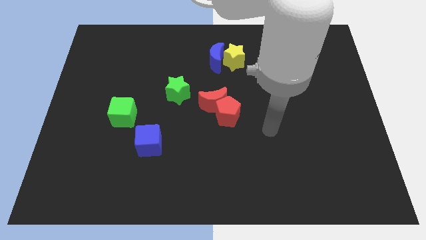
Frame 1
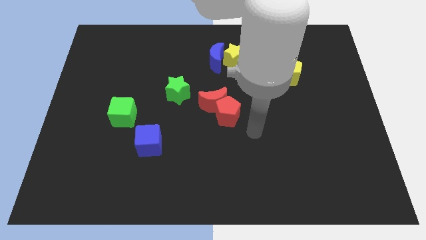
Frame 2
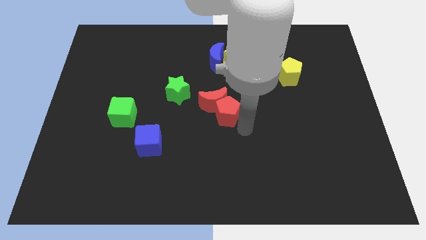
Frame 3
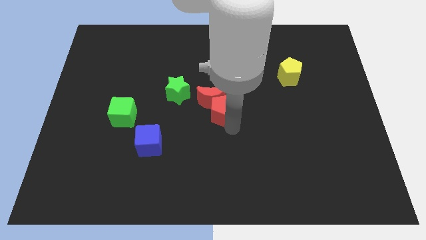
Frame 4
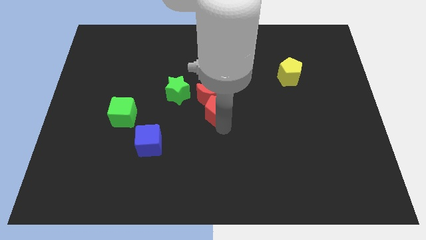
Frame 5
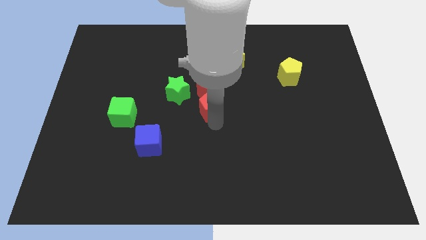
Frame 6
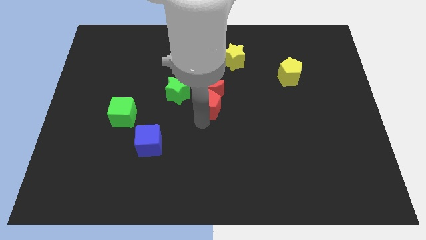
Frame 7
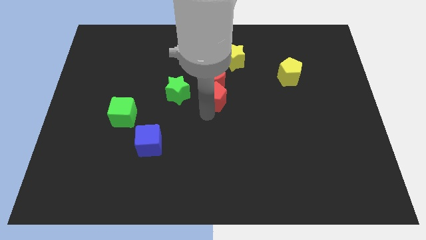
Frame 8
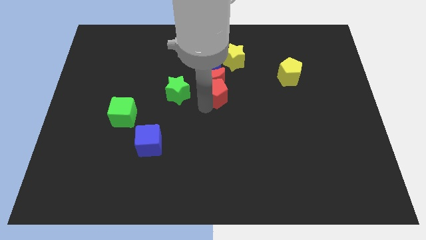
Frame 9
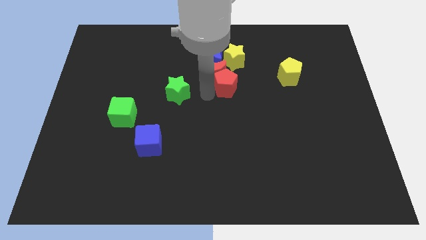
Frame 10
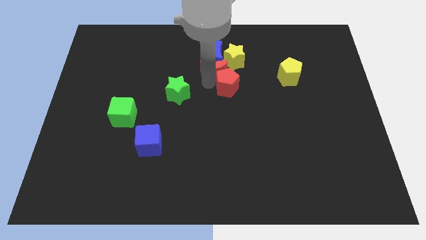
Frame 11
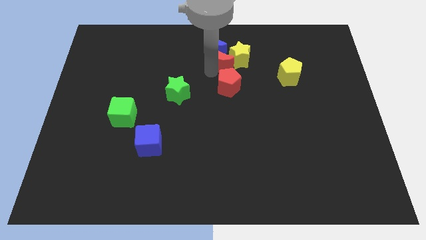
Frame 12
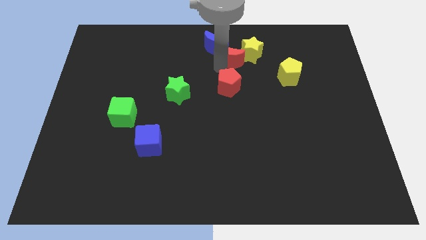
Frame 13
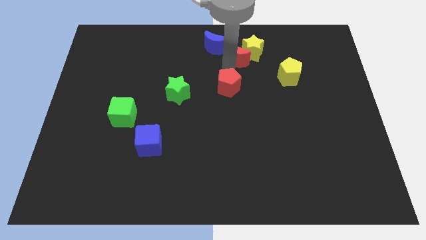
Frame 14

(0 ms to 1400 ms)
separate the red pentagon from the red moon

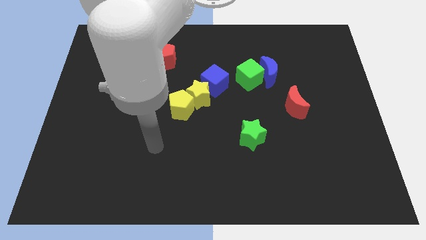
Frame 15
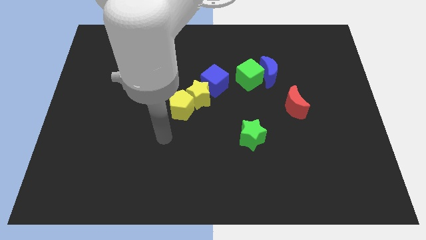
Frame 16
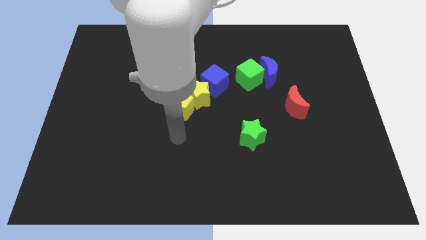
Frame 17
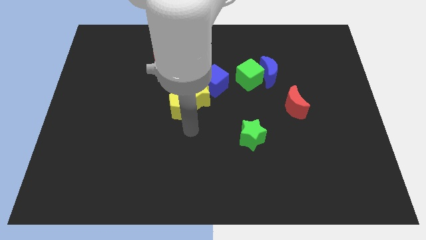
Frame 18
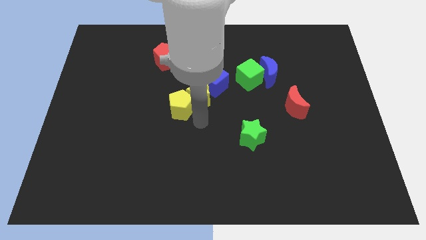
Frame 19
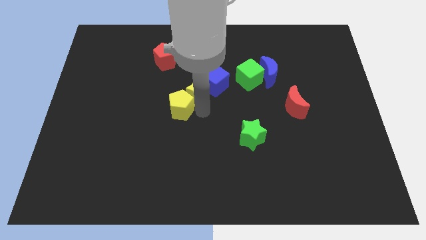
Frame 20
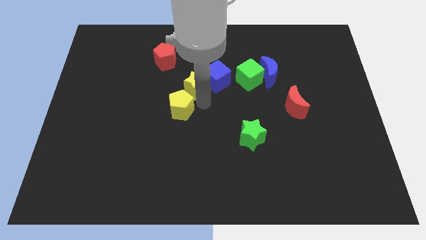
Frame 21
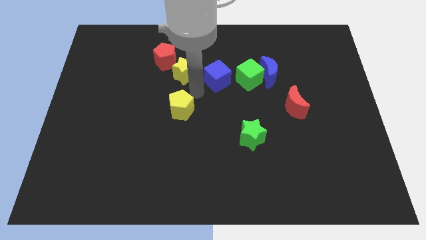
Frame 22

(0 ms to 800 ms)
separate the yellow pentagon from the yellow star

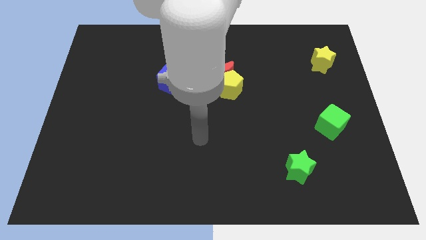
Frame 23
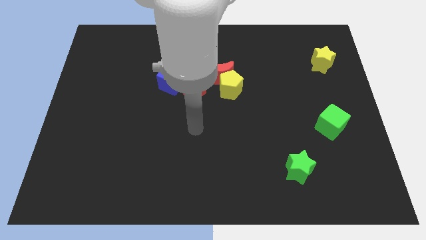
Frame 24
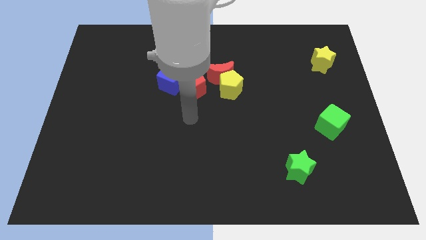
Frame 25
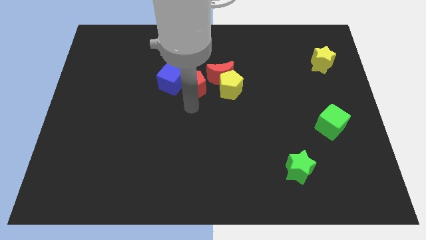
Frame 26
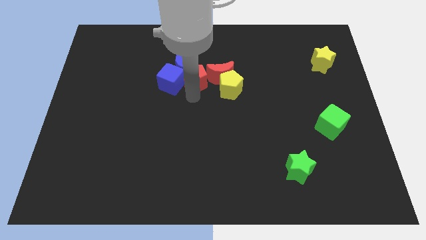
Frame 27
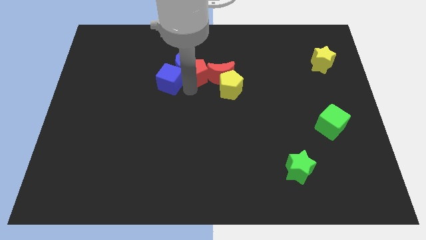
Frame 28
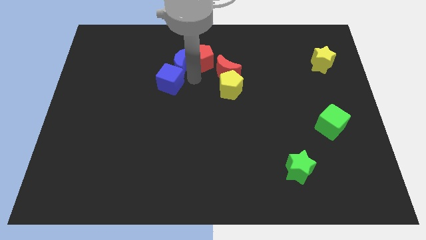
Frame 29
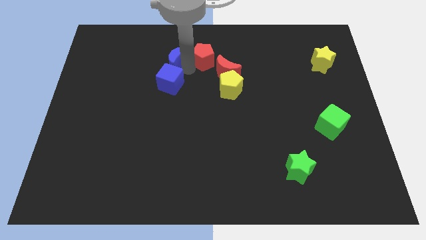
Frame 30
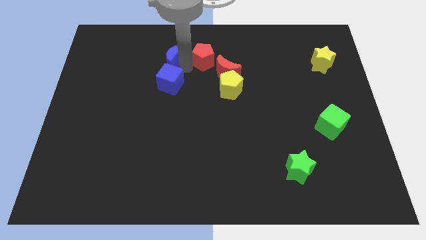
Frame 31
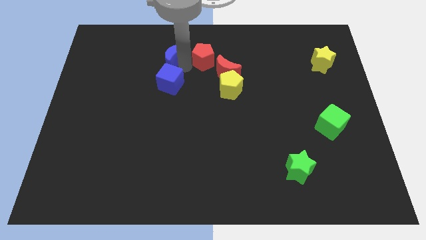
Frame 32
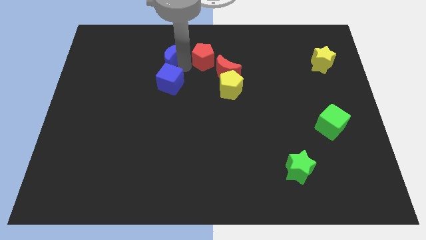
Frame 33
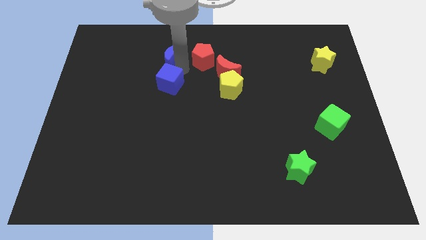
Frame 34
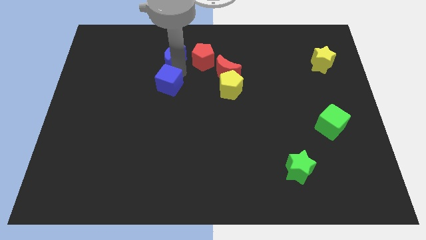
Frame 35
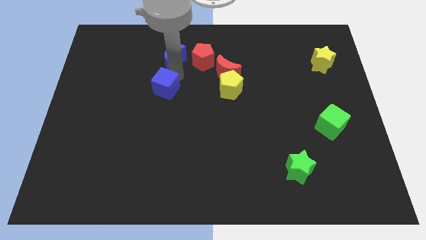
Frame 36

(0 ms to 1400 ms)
pull the blue cube apart from the red pentagon and blue moon

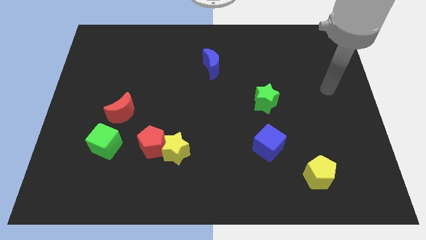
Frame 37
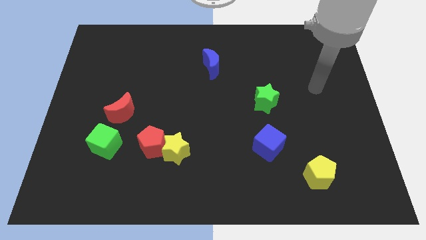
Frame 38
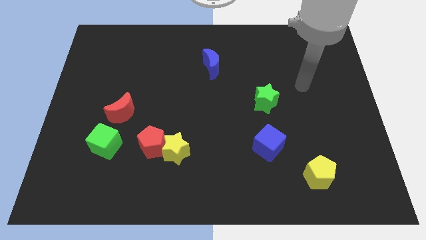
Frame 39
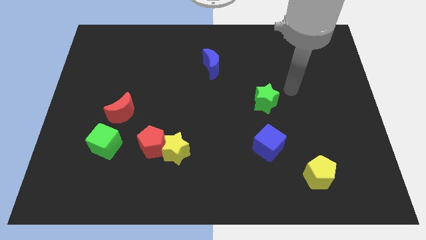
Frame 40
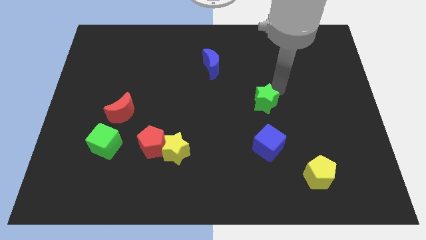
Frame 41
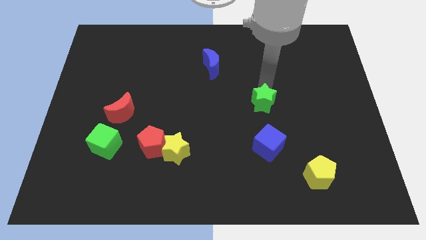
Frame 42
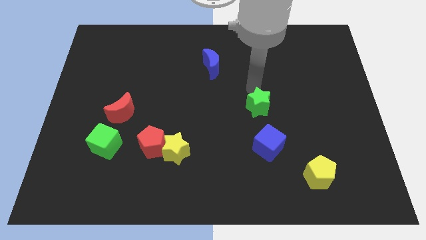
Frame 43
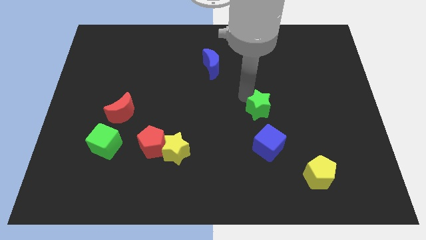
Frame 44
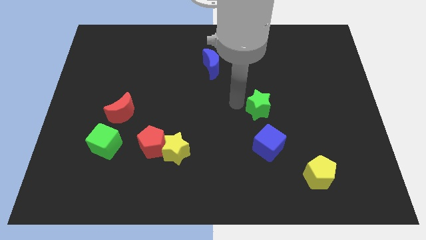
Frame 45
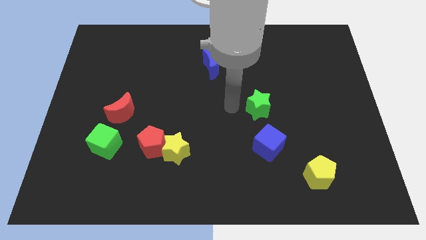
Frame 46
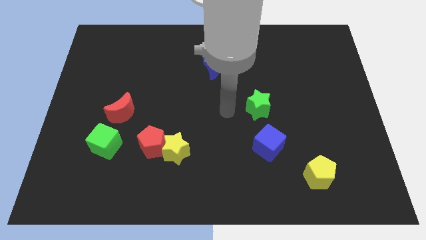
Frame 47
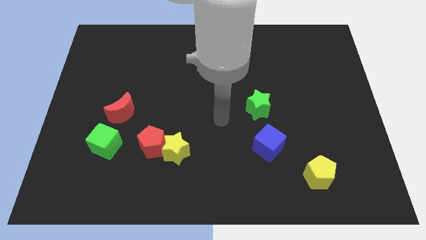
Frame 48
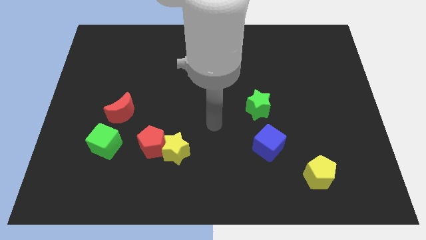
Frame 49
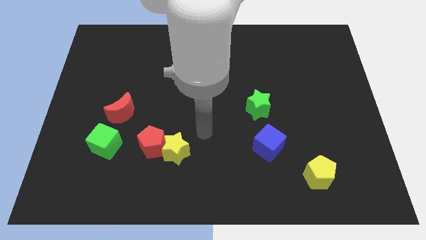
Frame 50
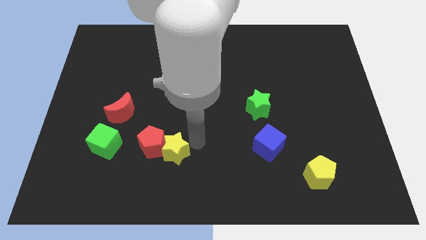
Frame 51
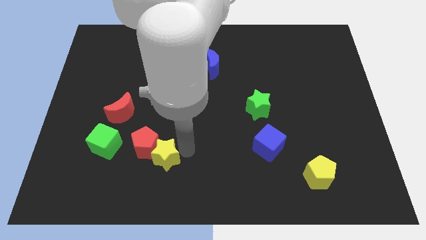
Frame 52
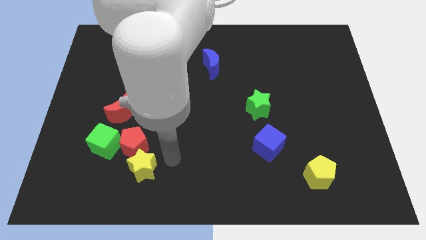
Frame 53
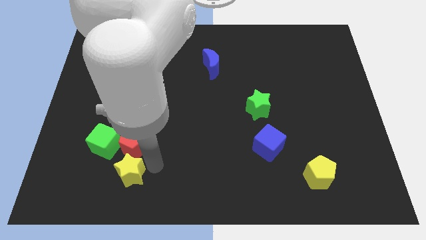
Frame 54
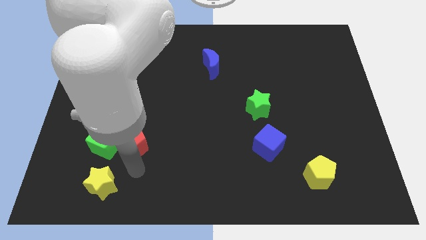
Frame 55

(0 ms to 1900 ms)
pull the red pentagon apart from the yellow star

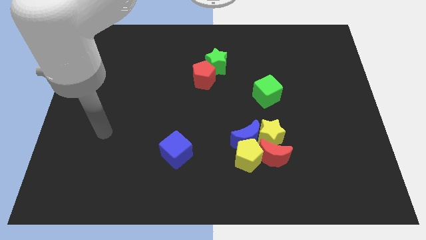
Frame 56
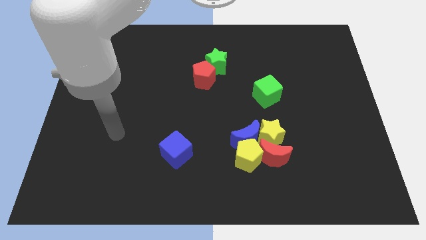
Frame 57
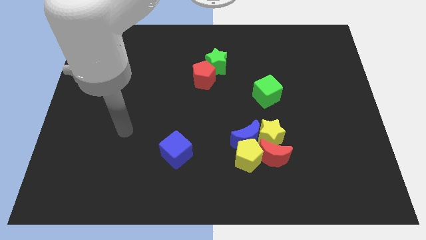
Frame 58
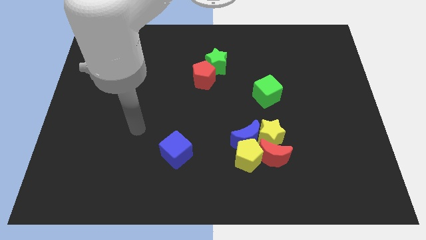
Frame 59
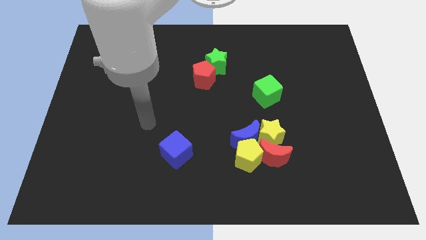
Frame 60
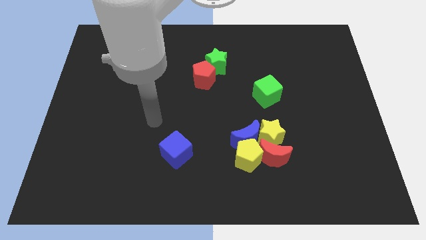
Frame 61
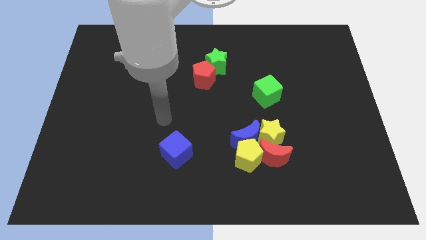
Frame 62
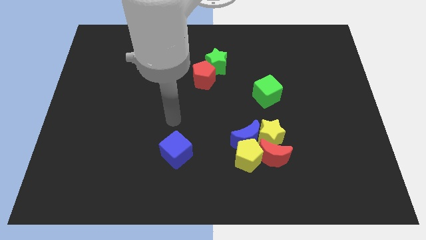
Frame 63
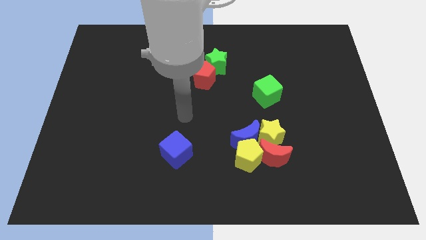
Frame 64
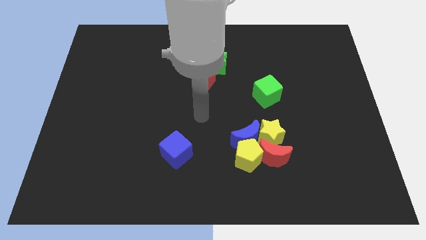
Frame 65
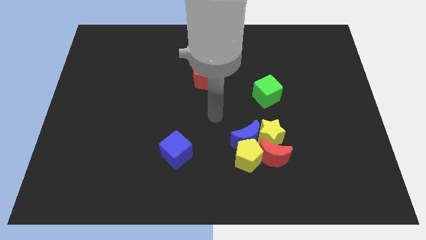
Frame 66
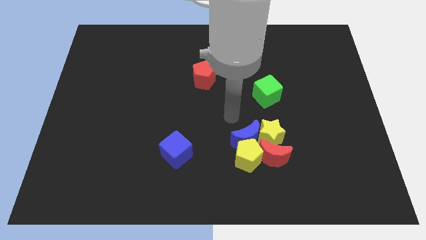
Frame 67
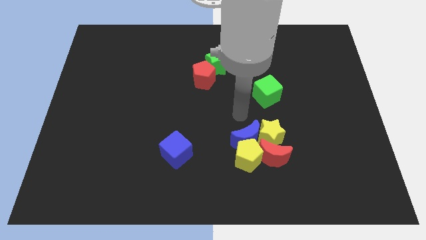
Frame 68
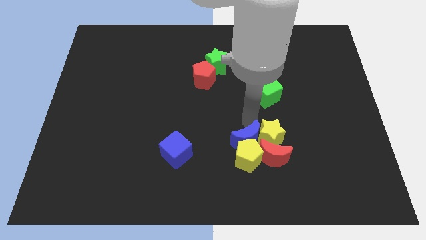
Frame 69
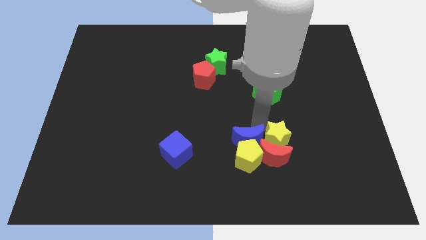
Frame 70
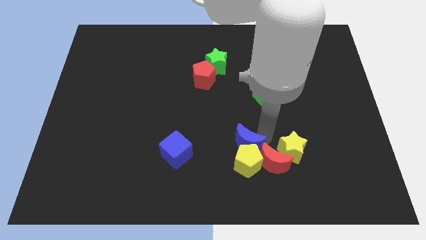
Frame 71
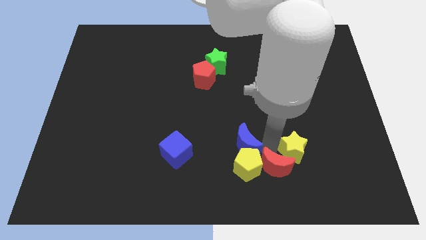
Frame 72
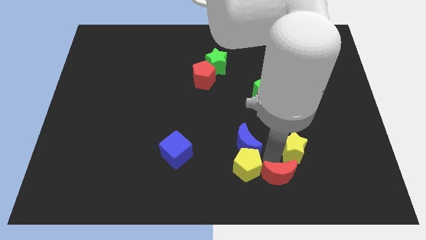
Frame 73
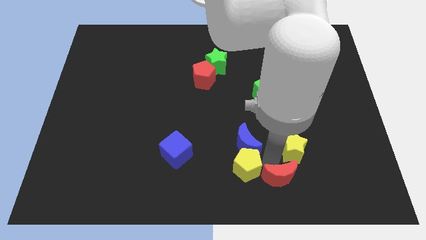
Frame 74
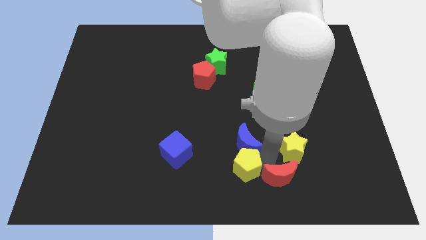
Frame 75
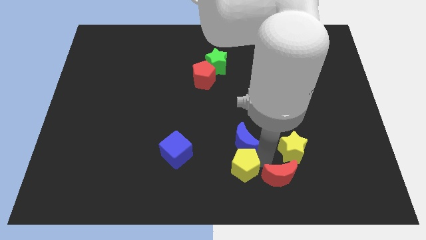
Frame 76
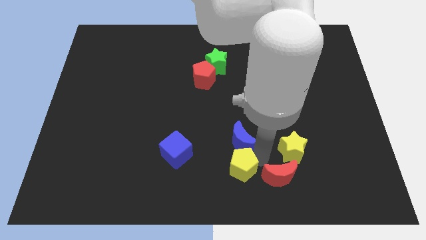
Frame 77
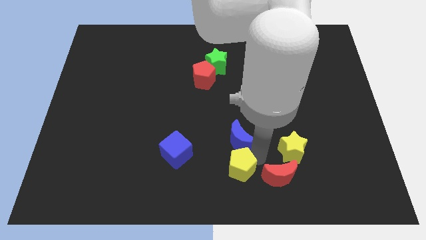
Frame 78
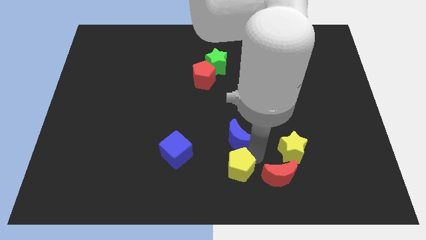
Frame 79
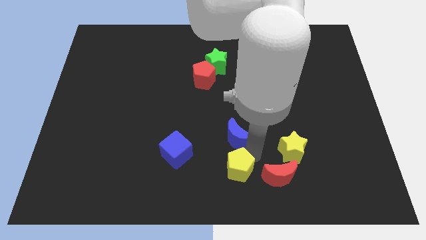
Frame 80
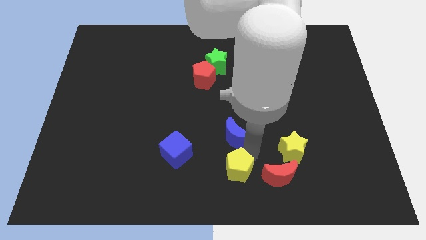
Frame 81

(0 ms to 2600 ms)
separate the blue moon from the group

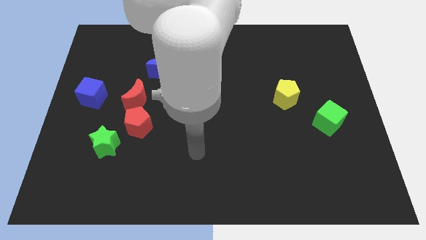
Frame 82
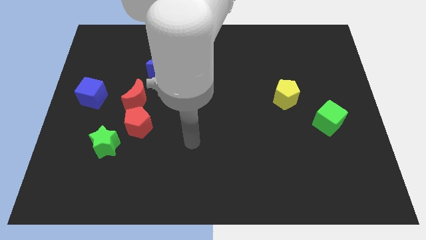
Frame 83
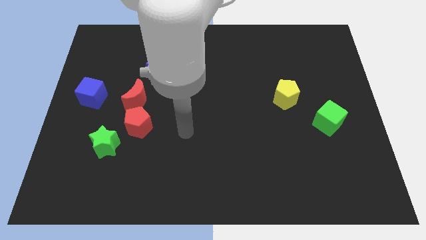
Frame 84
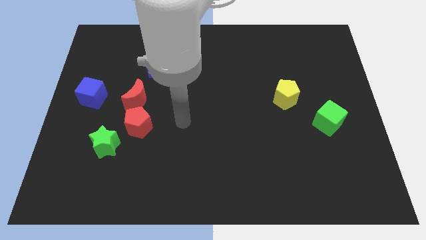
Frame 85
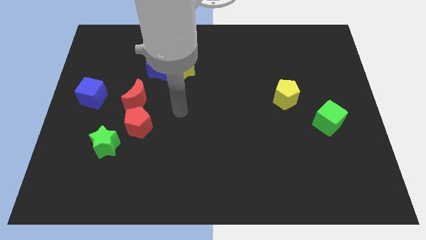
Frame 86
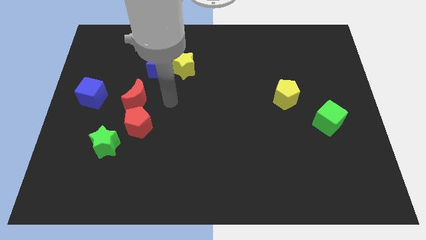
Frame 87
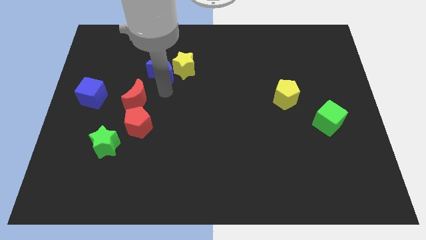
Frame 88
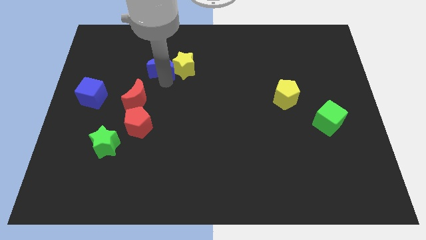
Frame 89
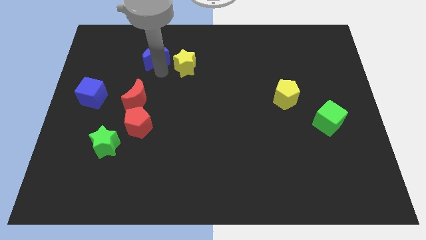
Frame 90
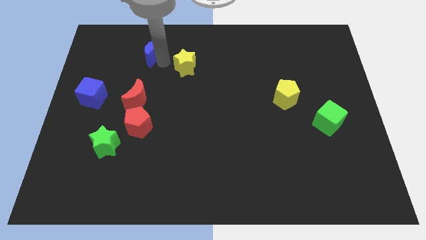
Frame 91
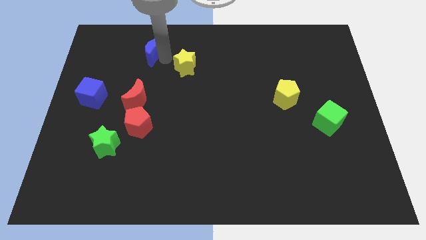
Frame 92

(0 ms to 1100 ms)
separate the yellow star from the blue moon

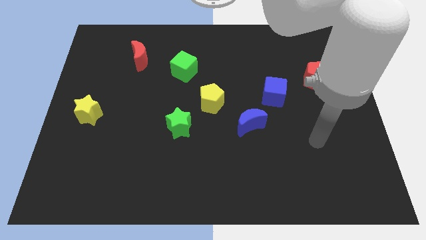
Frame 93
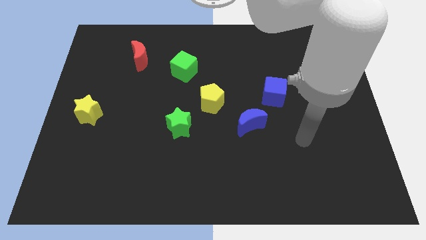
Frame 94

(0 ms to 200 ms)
separate the green star from the yellow pentagon

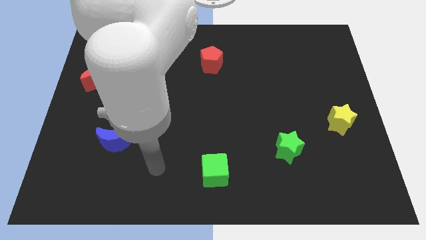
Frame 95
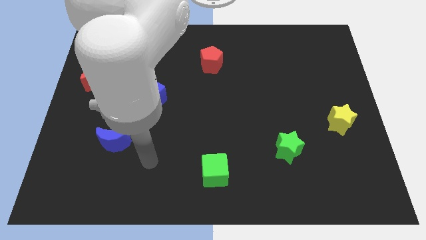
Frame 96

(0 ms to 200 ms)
pull the blue cube apart from the yellow pentagon
